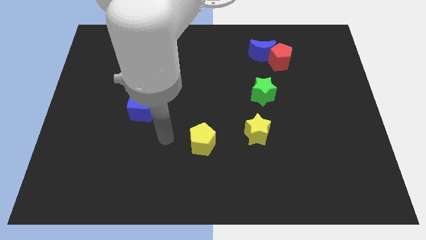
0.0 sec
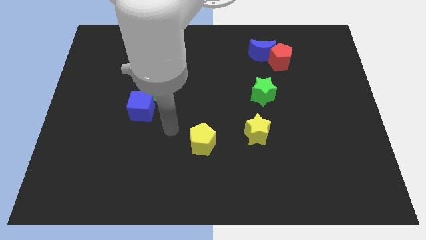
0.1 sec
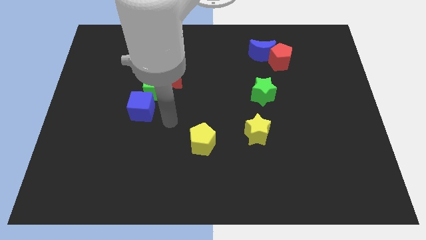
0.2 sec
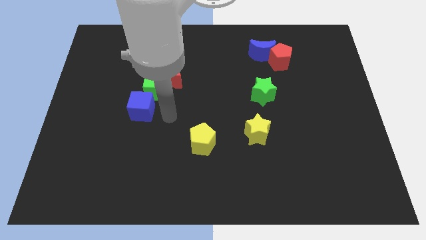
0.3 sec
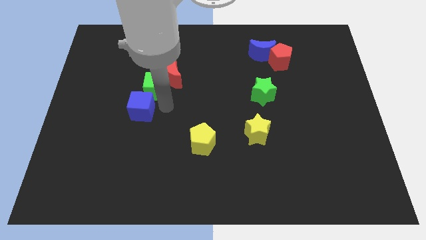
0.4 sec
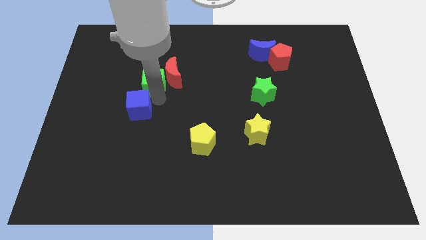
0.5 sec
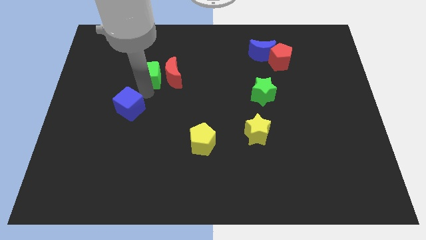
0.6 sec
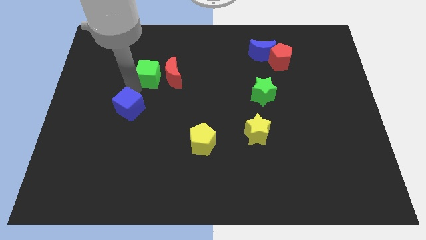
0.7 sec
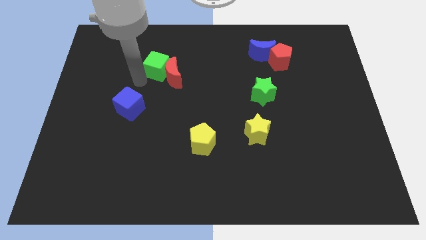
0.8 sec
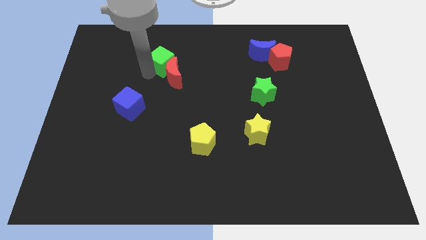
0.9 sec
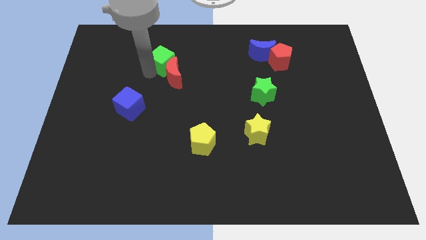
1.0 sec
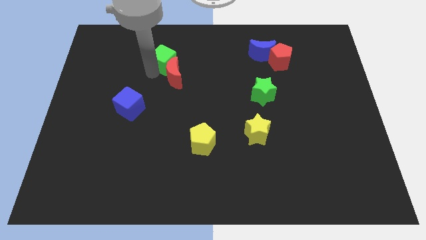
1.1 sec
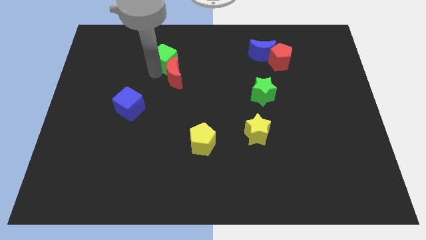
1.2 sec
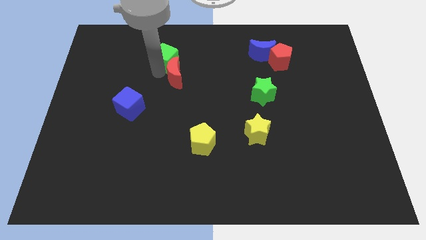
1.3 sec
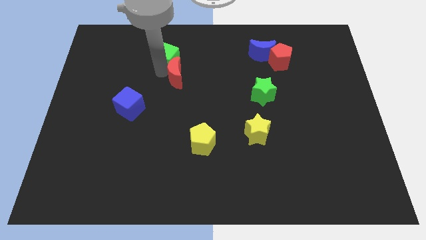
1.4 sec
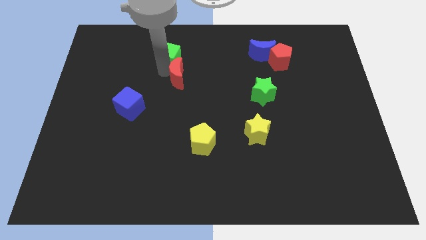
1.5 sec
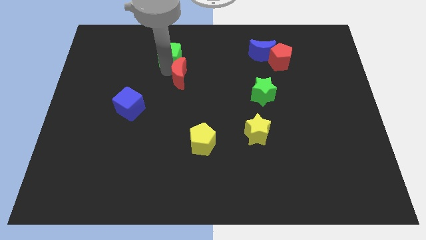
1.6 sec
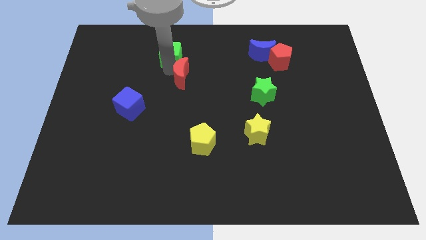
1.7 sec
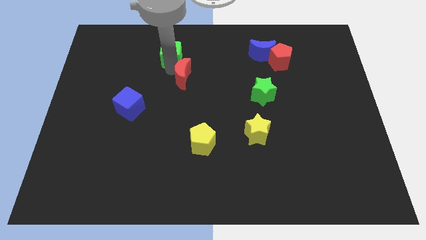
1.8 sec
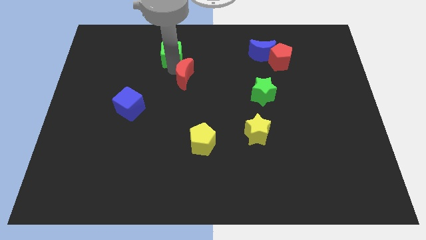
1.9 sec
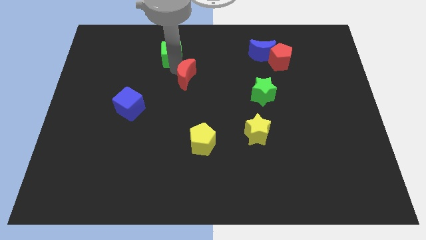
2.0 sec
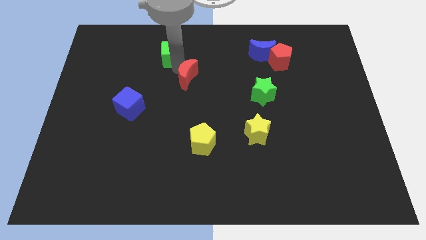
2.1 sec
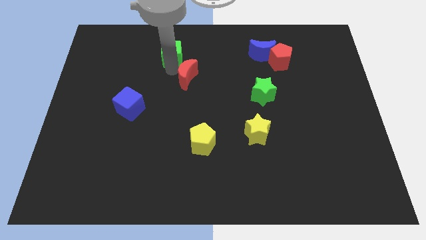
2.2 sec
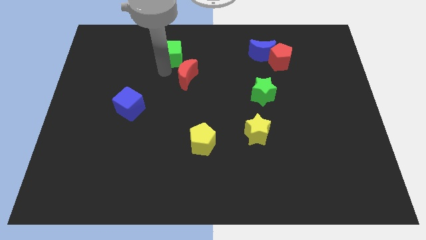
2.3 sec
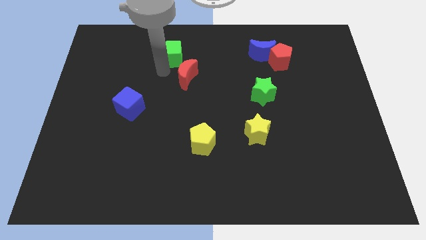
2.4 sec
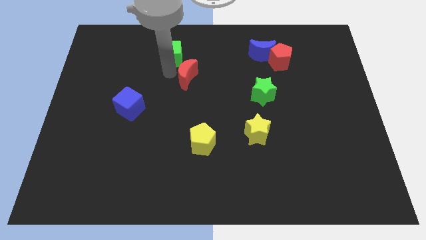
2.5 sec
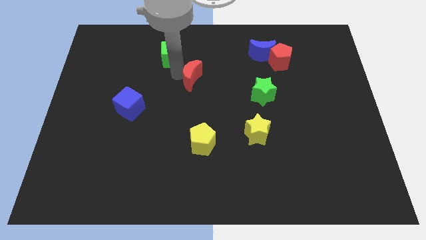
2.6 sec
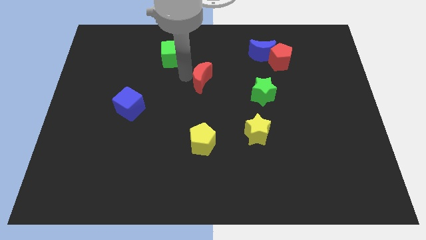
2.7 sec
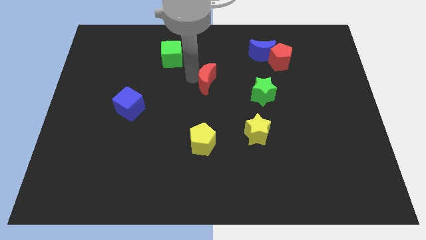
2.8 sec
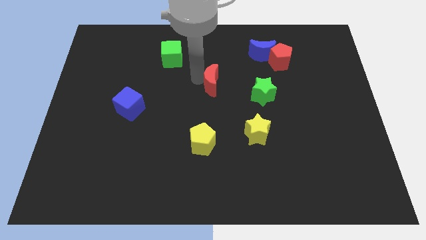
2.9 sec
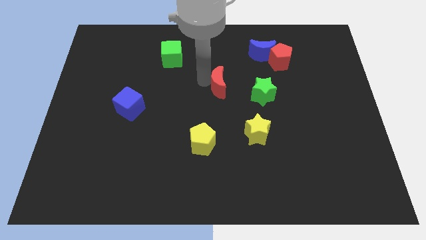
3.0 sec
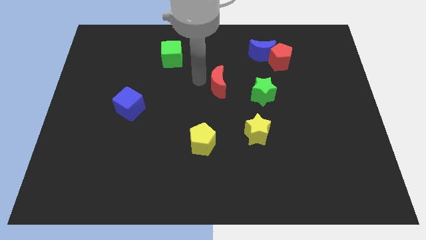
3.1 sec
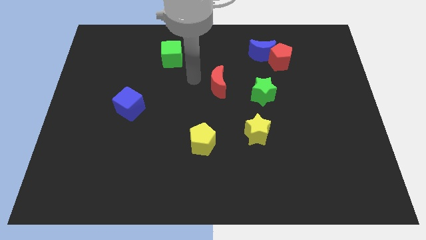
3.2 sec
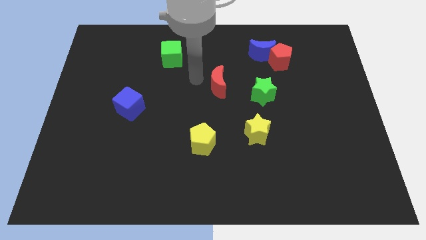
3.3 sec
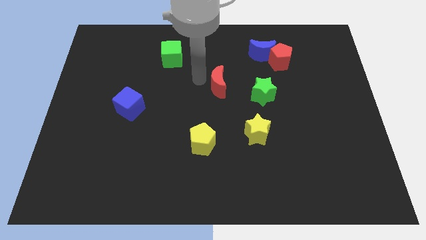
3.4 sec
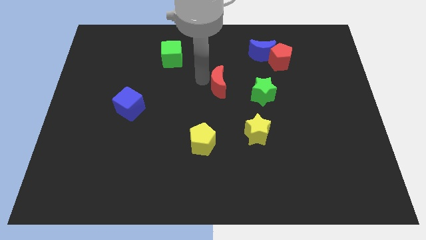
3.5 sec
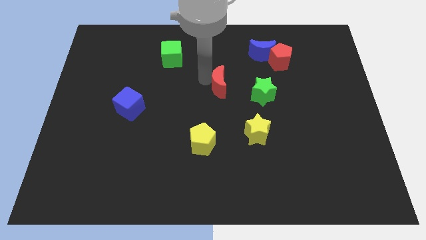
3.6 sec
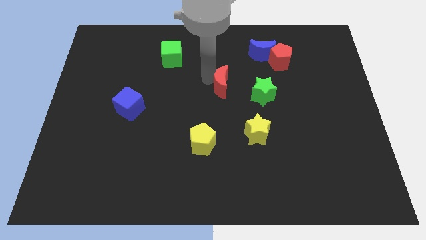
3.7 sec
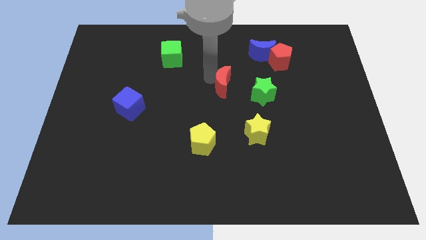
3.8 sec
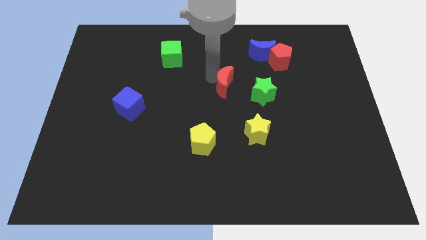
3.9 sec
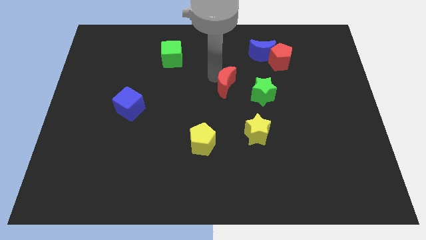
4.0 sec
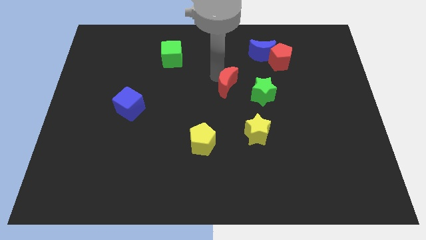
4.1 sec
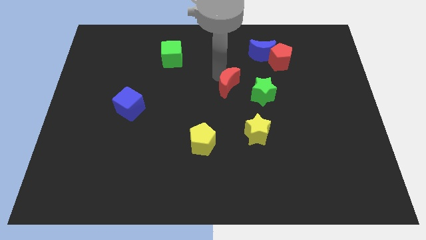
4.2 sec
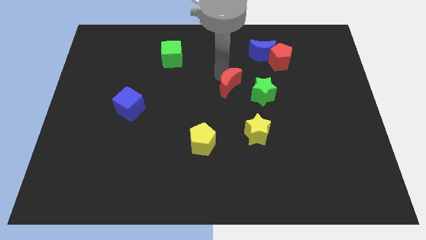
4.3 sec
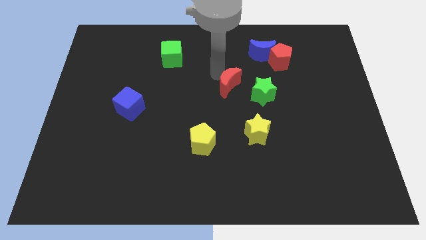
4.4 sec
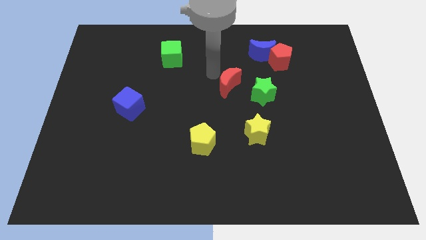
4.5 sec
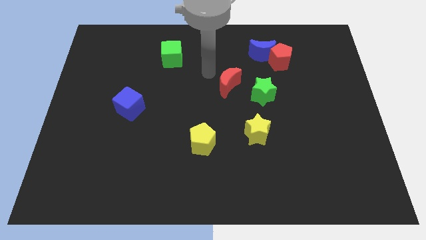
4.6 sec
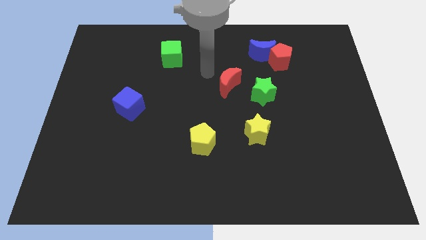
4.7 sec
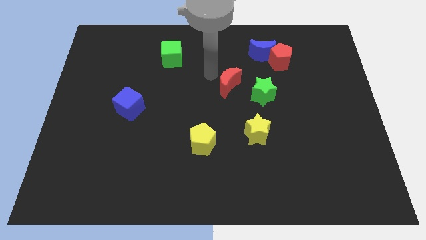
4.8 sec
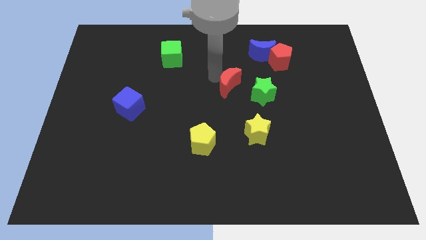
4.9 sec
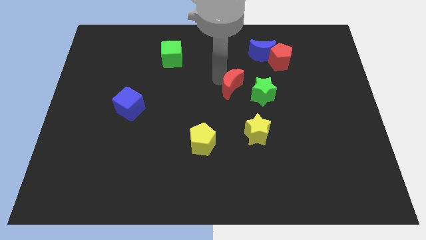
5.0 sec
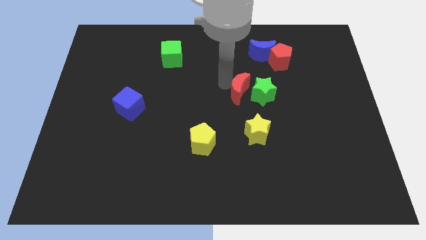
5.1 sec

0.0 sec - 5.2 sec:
slide the red moon to the green star

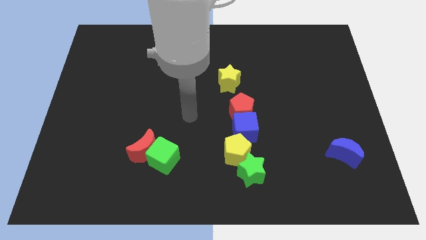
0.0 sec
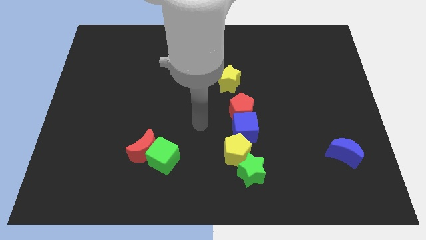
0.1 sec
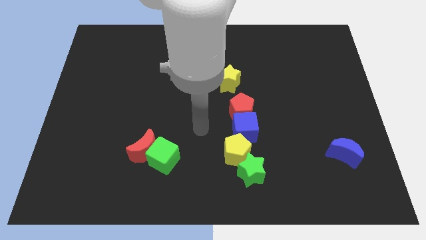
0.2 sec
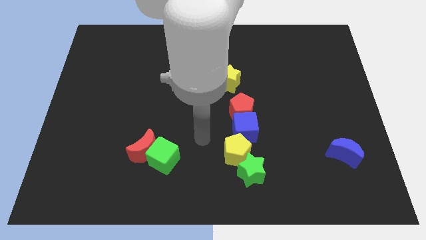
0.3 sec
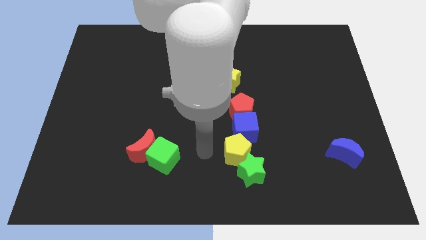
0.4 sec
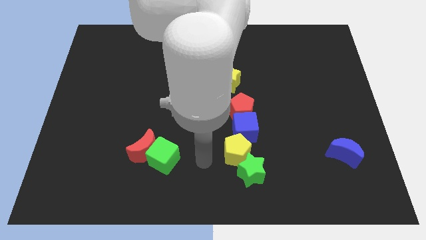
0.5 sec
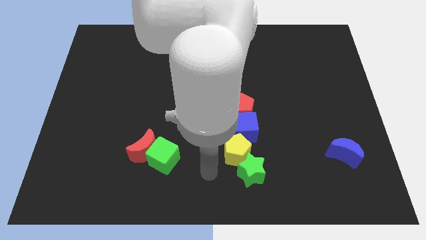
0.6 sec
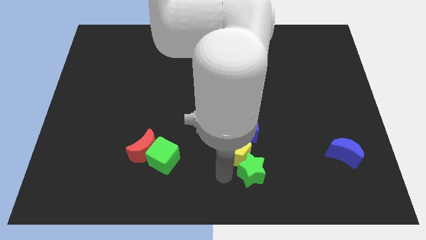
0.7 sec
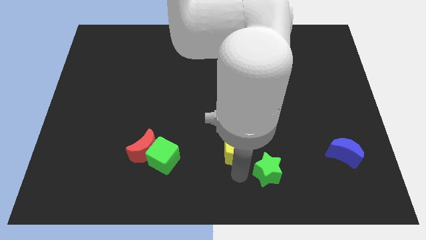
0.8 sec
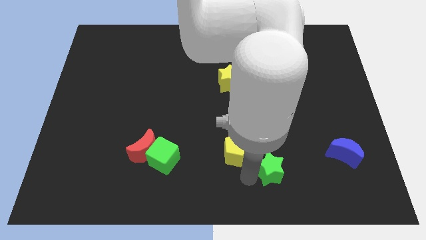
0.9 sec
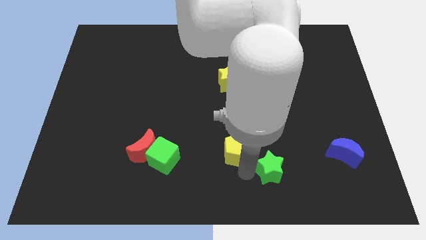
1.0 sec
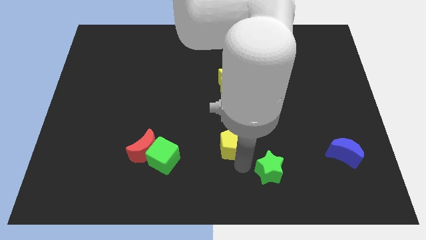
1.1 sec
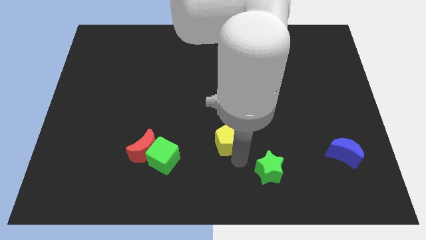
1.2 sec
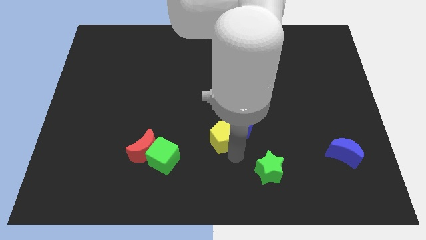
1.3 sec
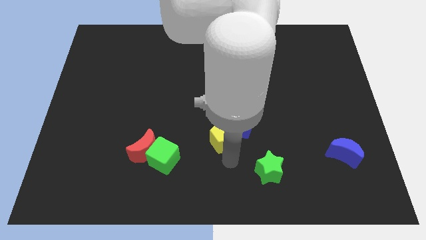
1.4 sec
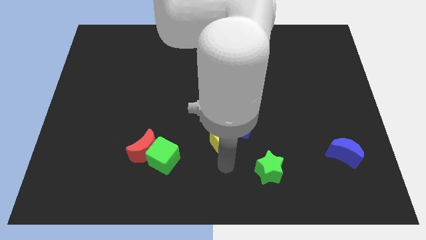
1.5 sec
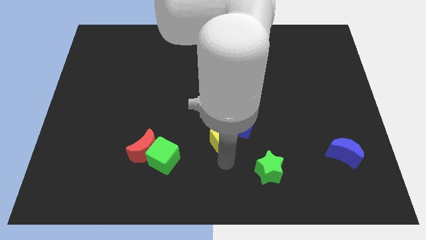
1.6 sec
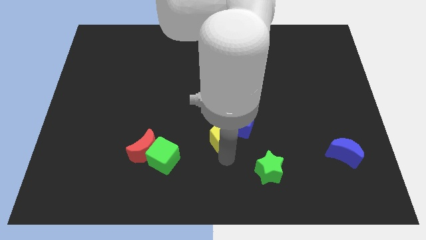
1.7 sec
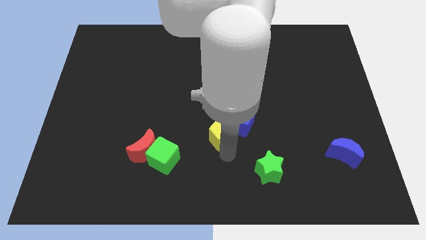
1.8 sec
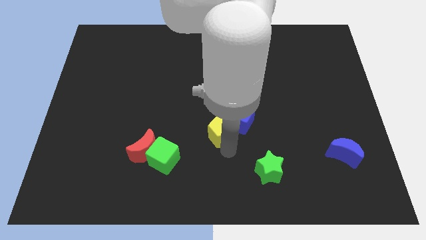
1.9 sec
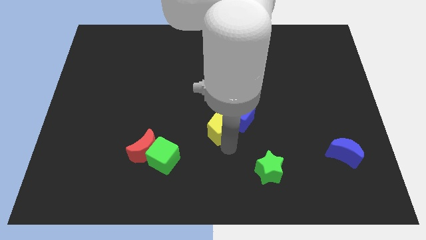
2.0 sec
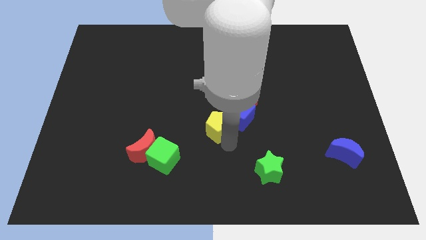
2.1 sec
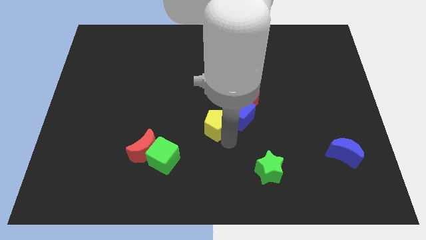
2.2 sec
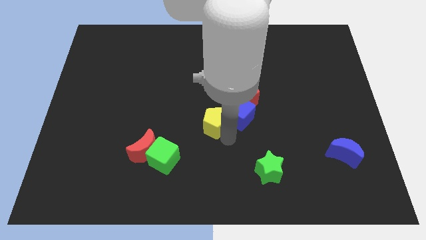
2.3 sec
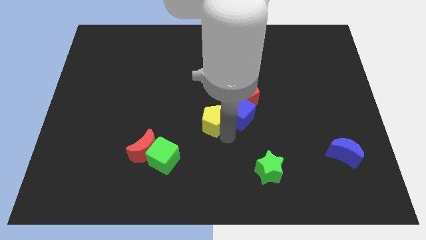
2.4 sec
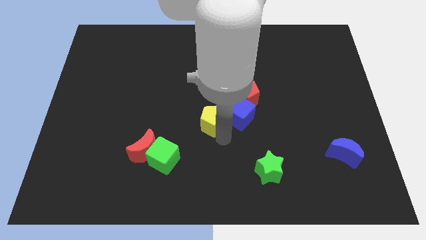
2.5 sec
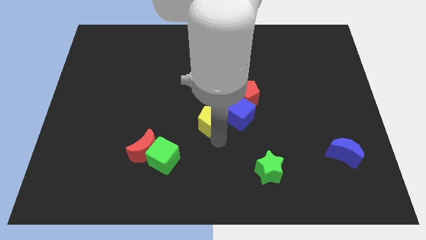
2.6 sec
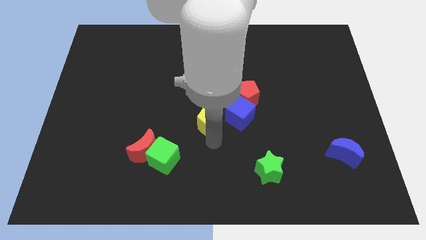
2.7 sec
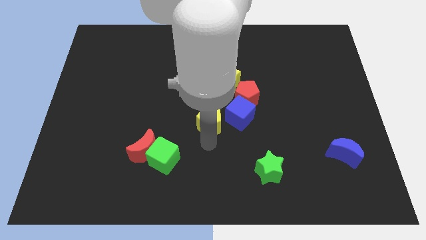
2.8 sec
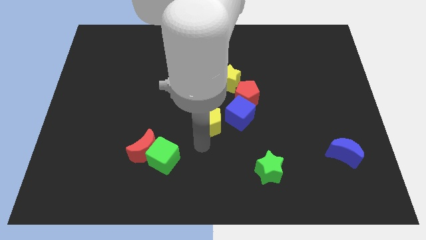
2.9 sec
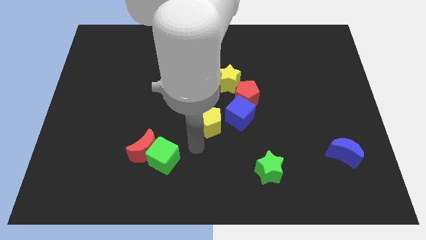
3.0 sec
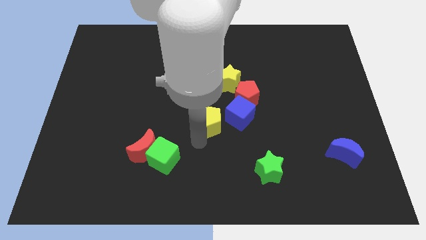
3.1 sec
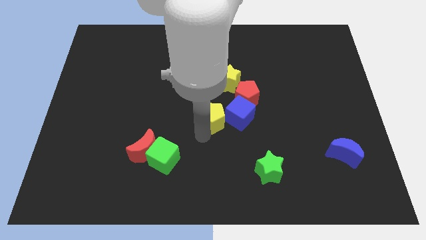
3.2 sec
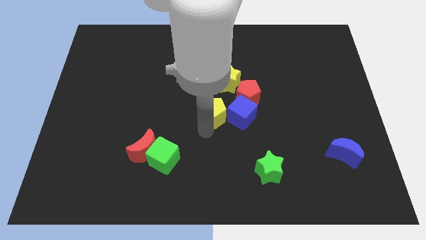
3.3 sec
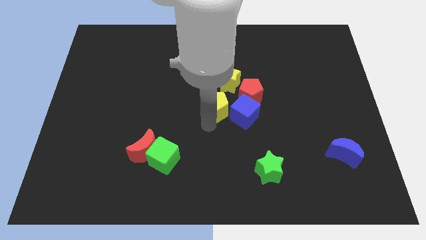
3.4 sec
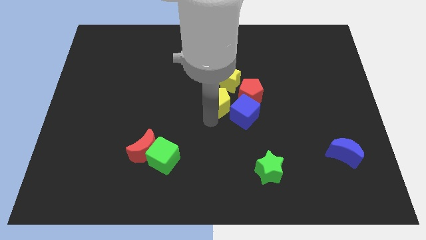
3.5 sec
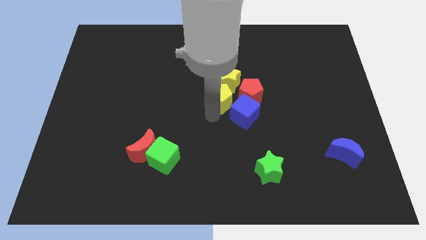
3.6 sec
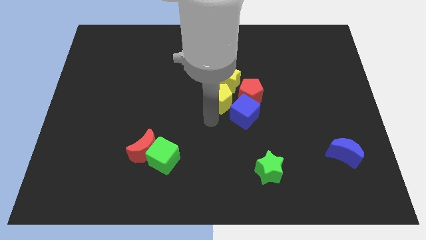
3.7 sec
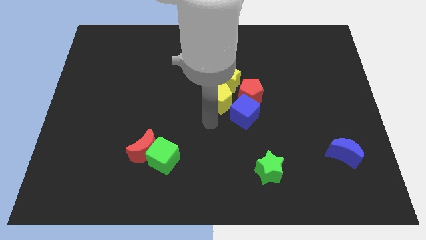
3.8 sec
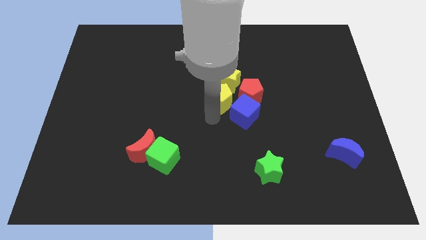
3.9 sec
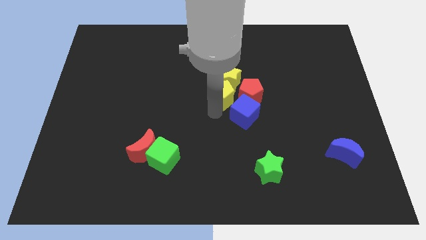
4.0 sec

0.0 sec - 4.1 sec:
push the yellow pentagon to the yellow star
